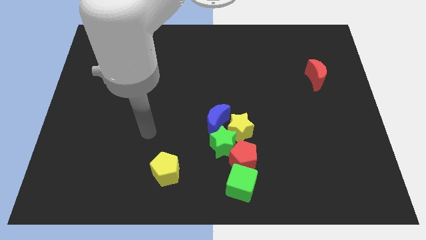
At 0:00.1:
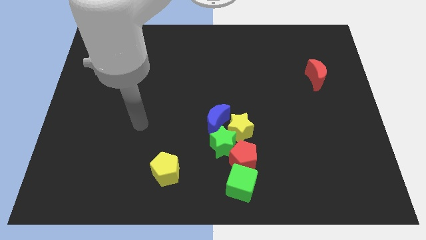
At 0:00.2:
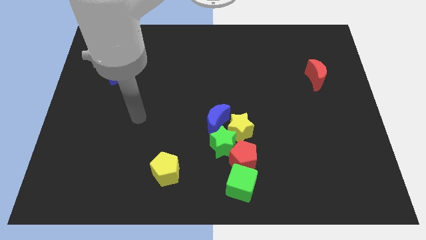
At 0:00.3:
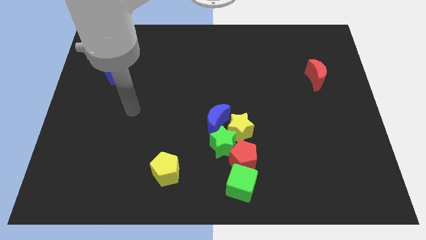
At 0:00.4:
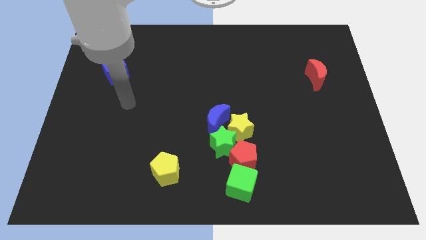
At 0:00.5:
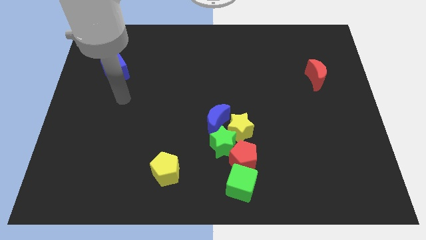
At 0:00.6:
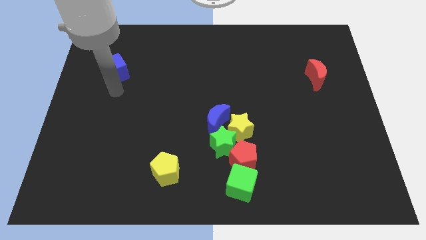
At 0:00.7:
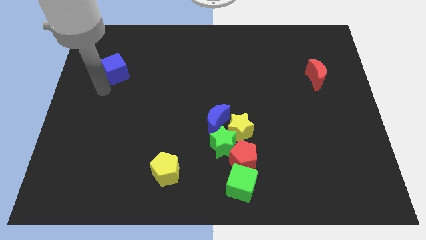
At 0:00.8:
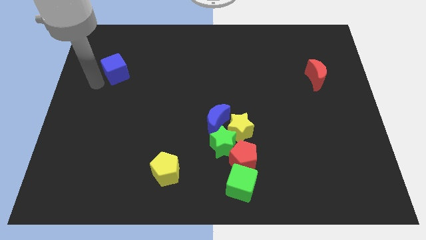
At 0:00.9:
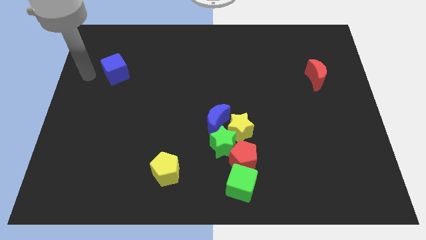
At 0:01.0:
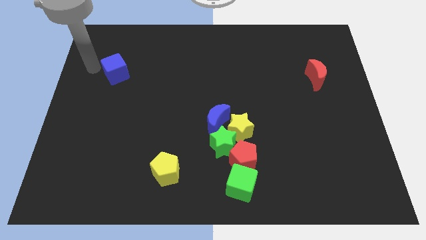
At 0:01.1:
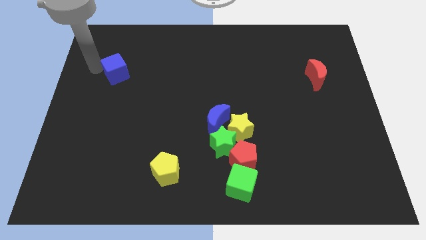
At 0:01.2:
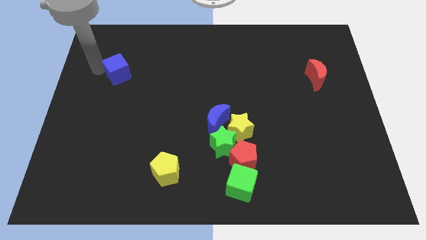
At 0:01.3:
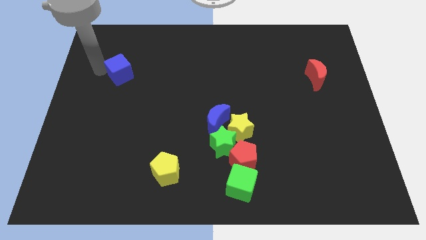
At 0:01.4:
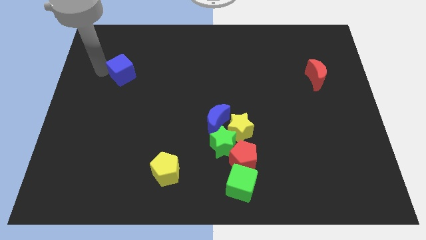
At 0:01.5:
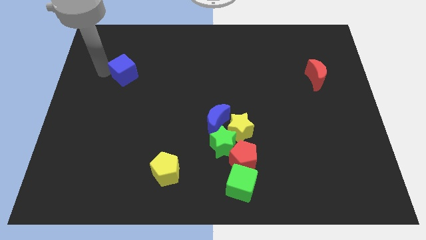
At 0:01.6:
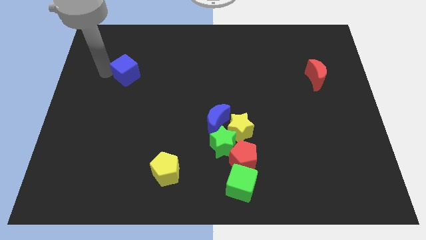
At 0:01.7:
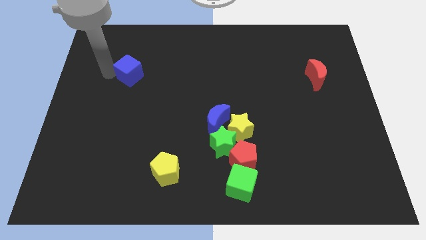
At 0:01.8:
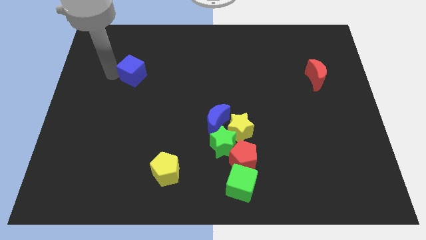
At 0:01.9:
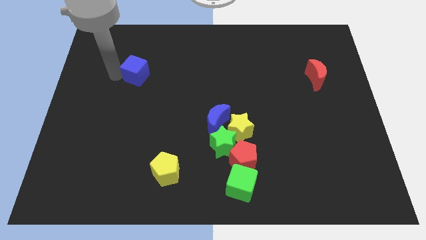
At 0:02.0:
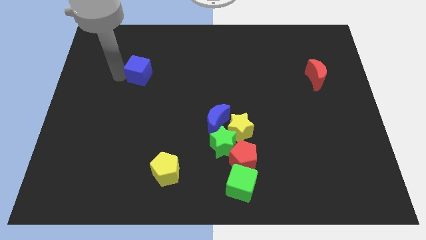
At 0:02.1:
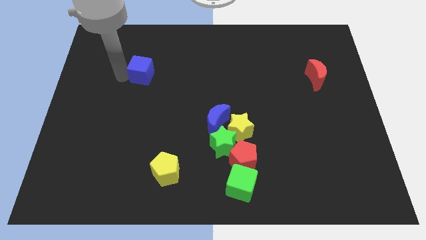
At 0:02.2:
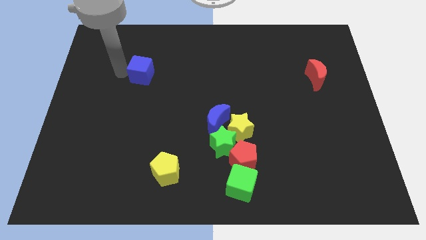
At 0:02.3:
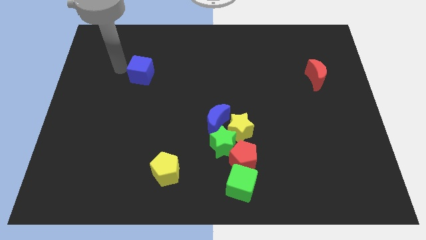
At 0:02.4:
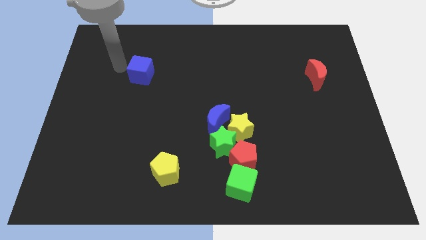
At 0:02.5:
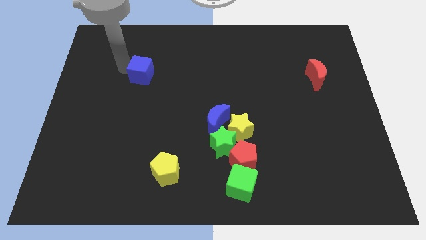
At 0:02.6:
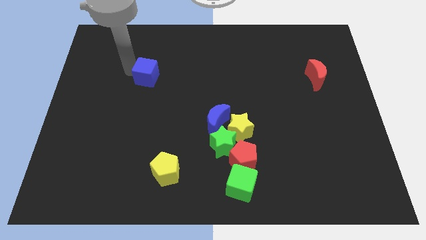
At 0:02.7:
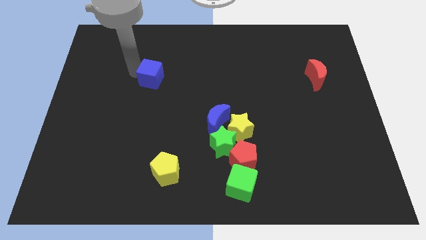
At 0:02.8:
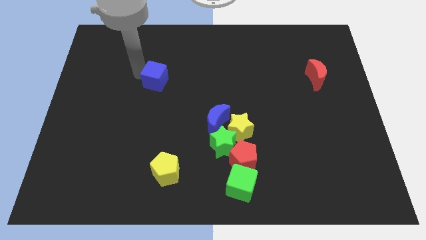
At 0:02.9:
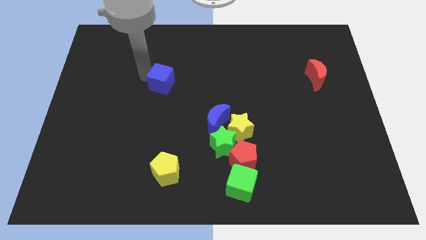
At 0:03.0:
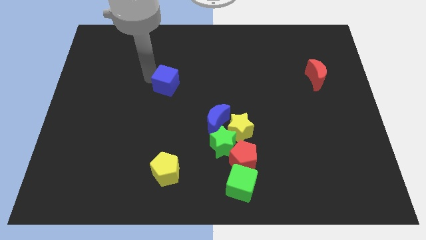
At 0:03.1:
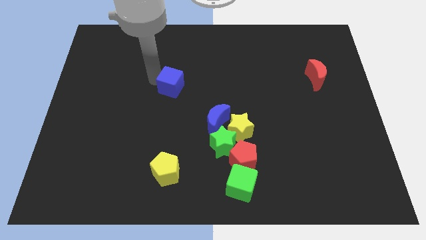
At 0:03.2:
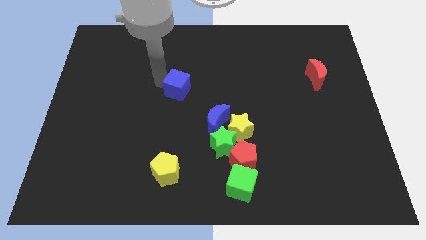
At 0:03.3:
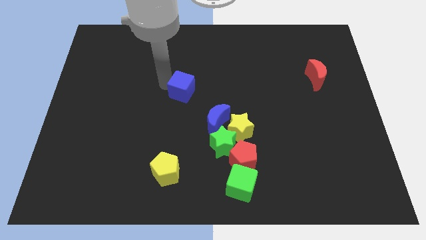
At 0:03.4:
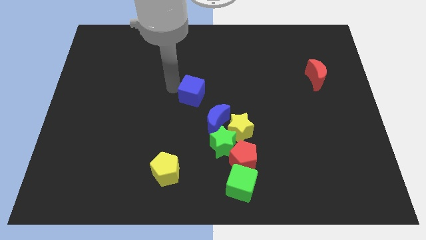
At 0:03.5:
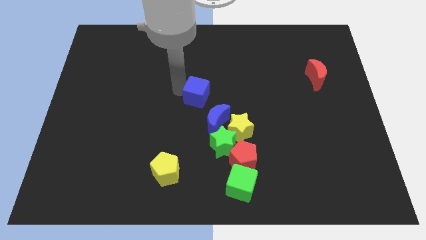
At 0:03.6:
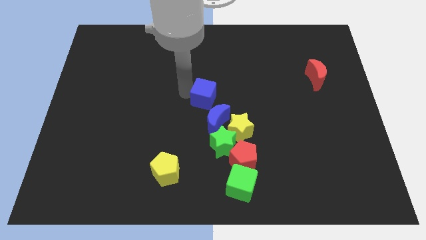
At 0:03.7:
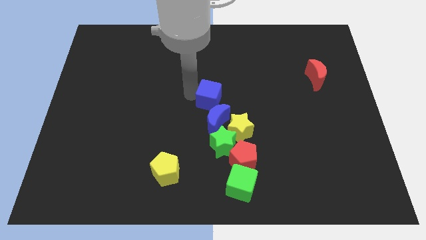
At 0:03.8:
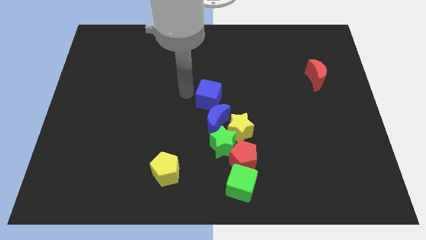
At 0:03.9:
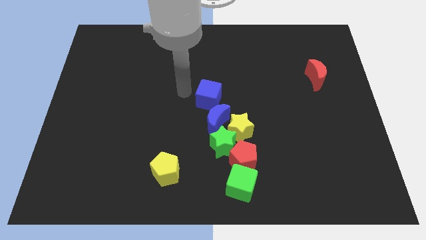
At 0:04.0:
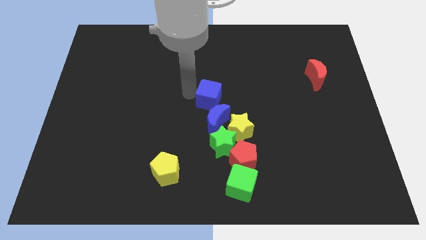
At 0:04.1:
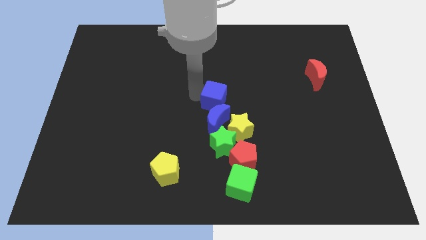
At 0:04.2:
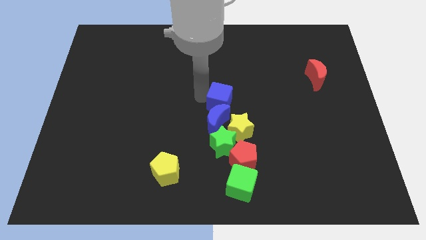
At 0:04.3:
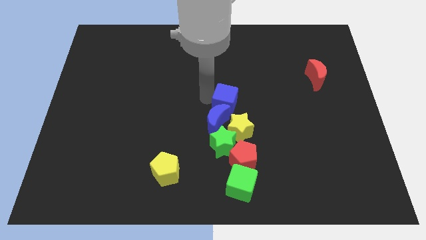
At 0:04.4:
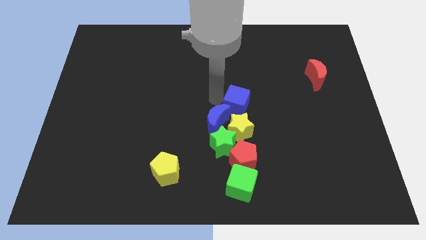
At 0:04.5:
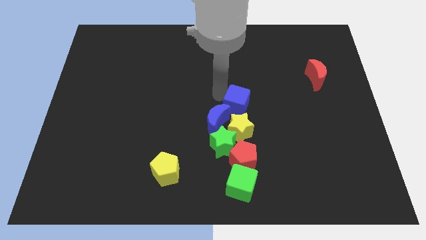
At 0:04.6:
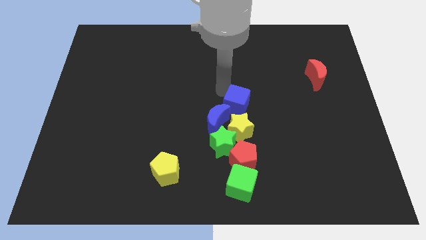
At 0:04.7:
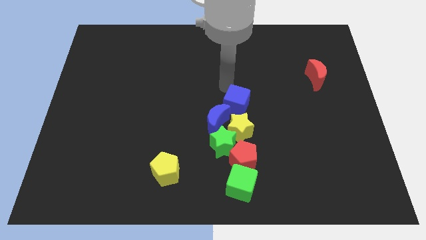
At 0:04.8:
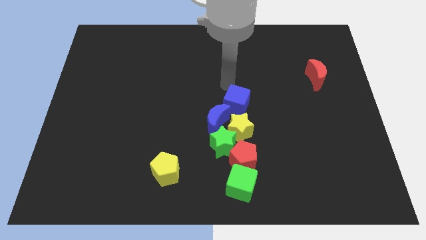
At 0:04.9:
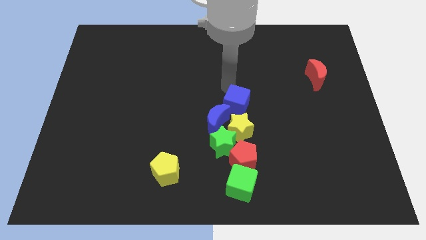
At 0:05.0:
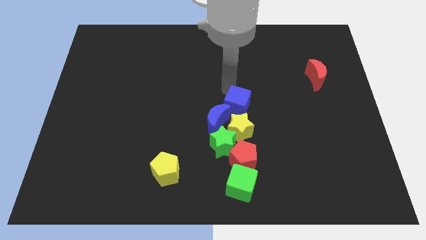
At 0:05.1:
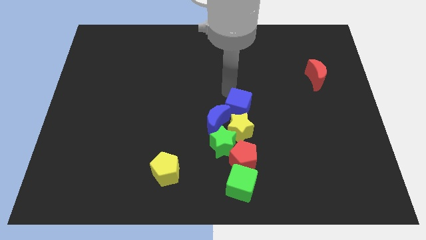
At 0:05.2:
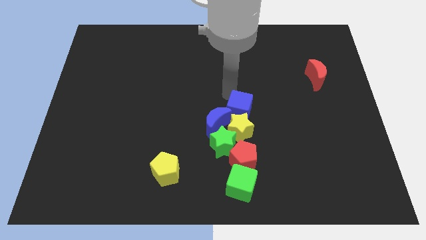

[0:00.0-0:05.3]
move the blue cube to the top right of the green star

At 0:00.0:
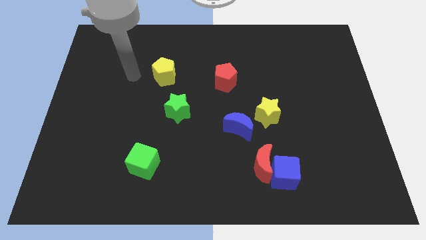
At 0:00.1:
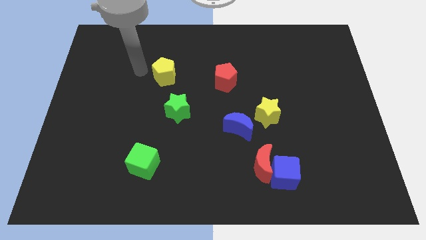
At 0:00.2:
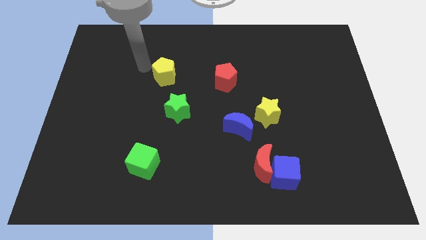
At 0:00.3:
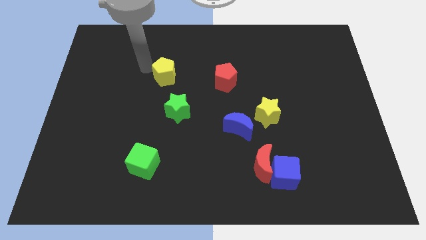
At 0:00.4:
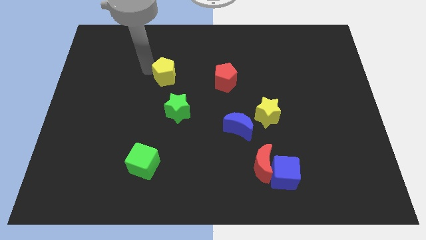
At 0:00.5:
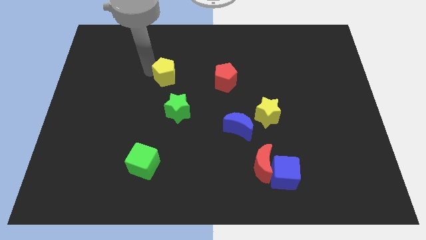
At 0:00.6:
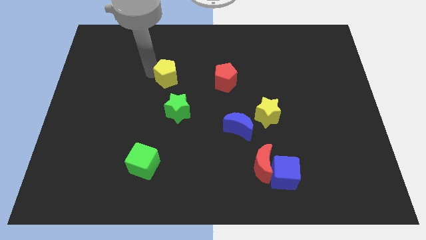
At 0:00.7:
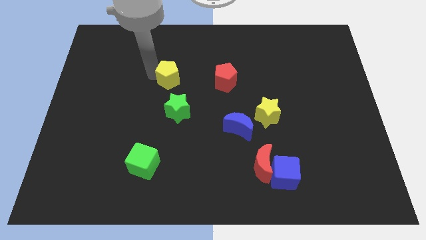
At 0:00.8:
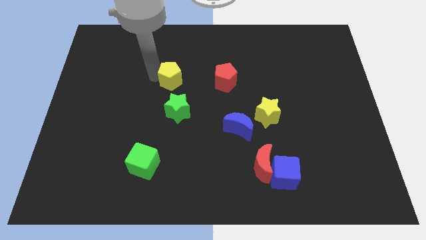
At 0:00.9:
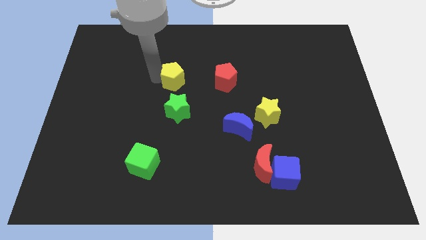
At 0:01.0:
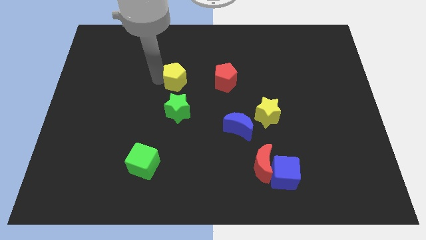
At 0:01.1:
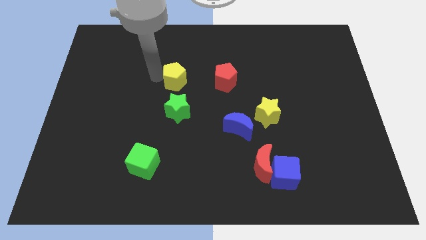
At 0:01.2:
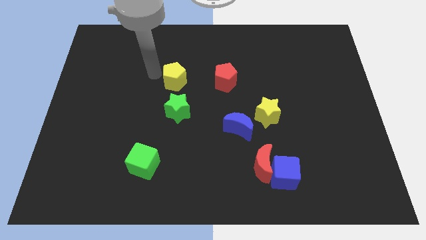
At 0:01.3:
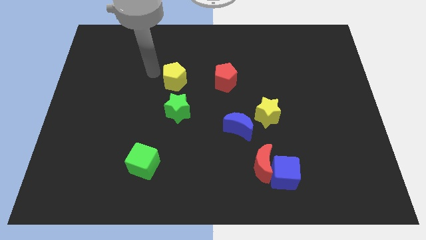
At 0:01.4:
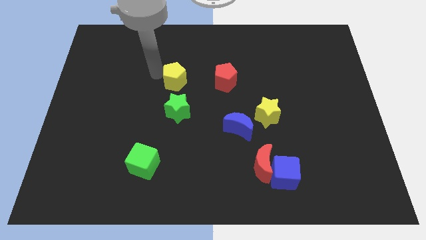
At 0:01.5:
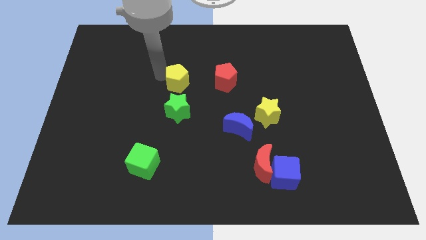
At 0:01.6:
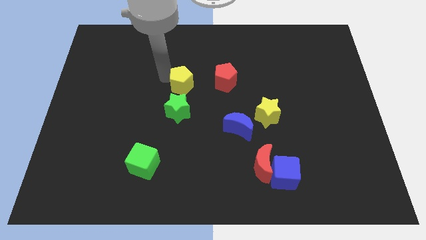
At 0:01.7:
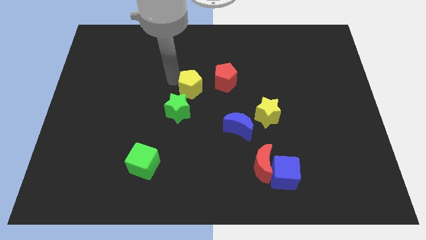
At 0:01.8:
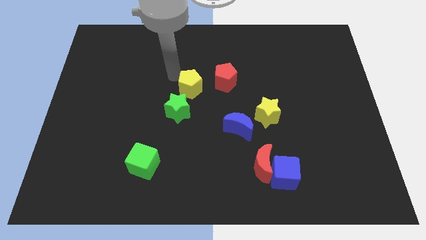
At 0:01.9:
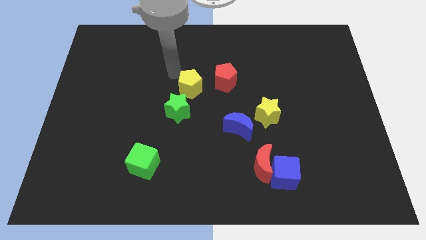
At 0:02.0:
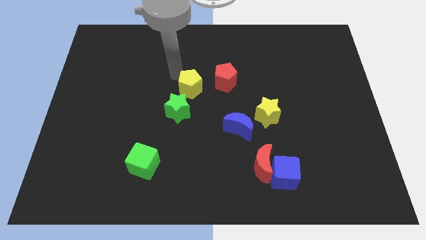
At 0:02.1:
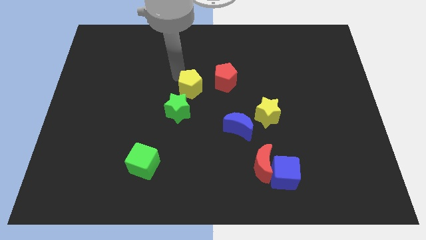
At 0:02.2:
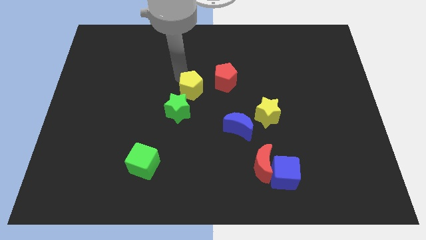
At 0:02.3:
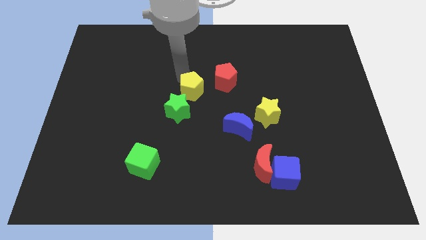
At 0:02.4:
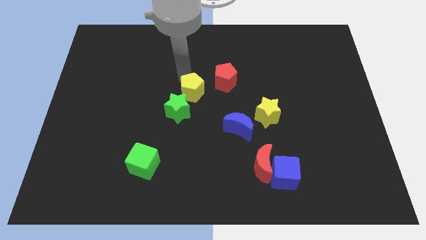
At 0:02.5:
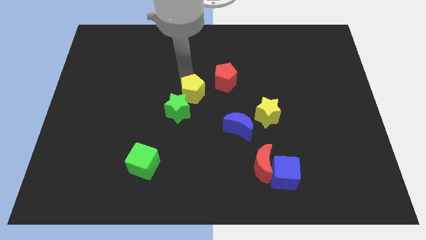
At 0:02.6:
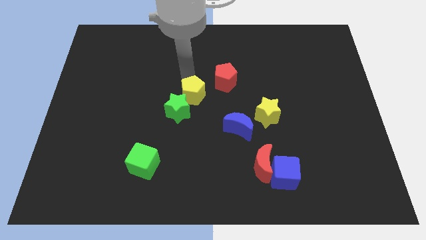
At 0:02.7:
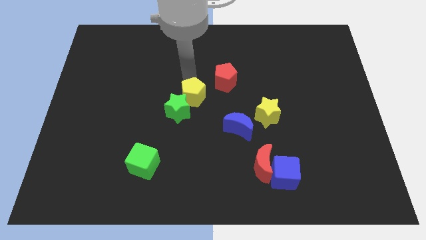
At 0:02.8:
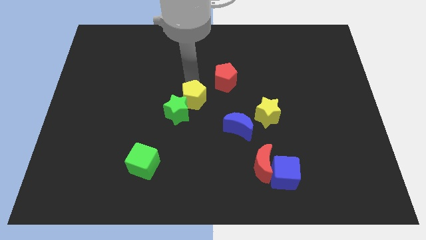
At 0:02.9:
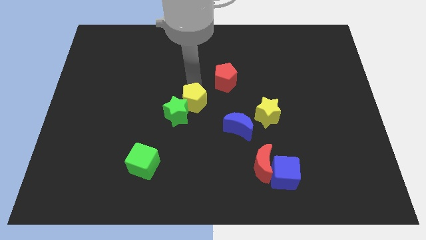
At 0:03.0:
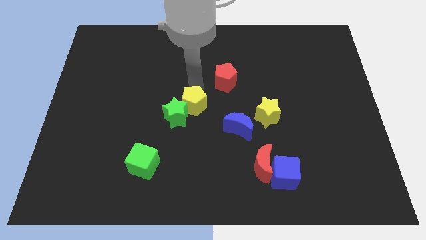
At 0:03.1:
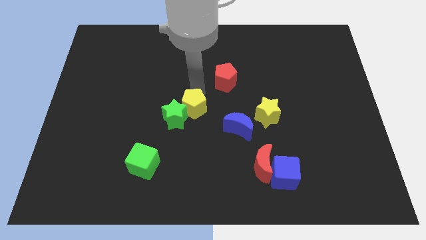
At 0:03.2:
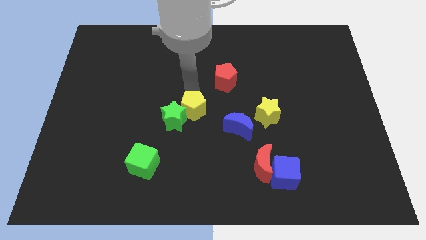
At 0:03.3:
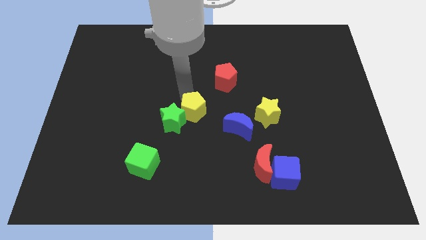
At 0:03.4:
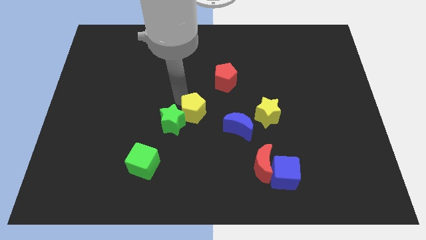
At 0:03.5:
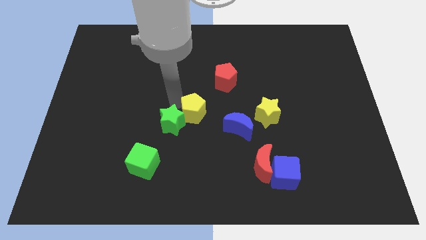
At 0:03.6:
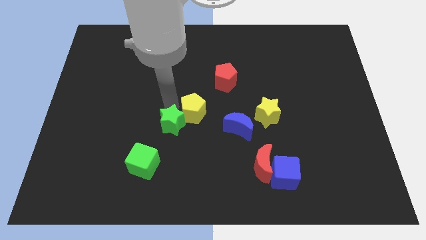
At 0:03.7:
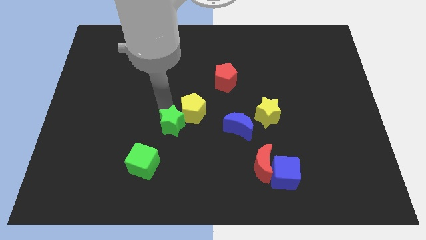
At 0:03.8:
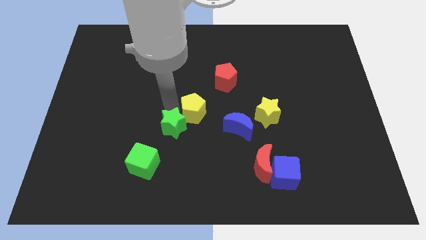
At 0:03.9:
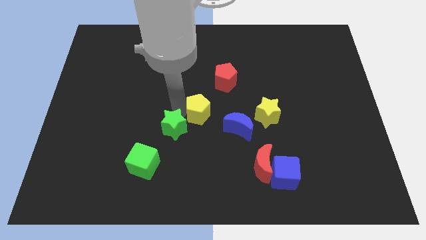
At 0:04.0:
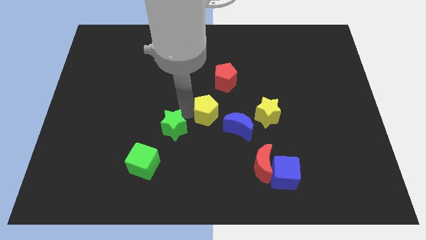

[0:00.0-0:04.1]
put the yellow pentagon below the red pentagon
